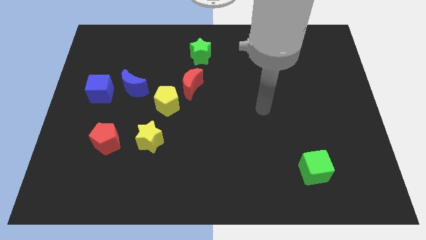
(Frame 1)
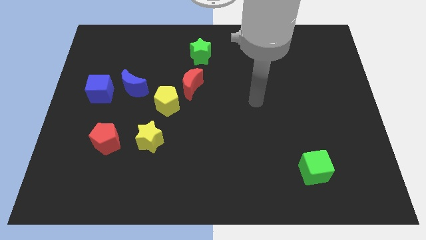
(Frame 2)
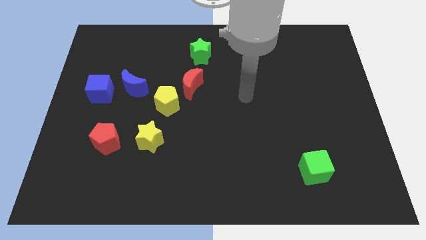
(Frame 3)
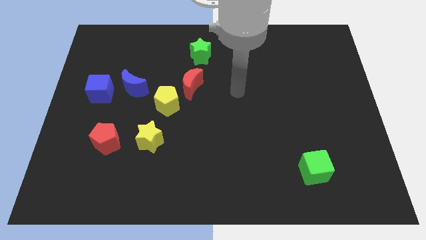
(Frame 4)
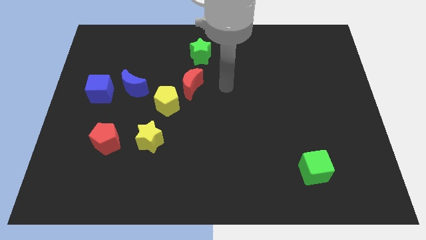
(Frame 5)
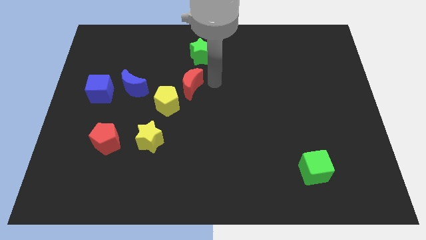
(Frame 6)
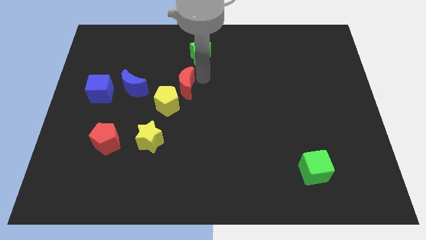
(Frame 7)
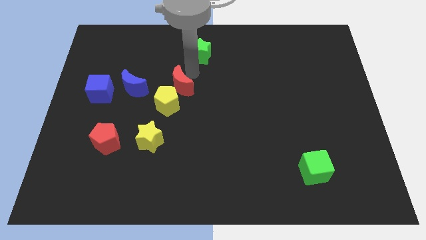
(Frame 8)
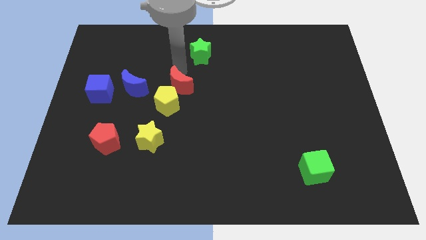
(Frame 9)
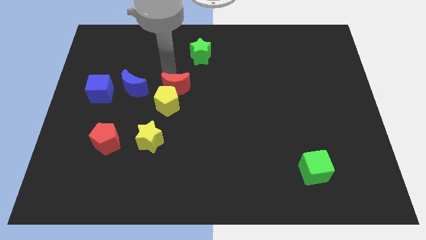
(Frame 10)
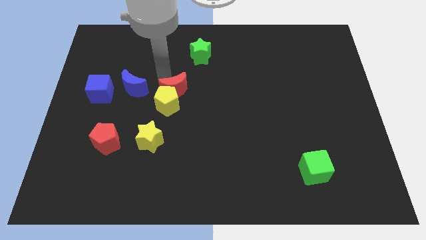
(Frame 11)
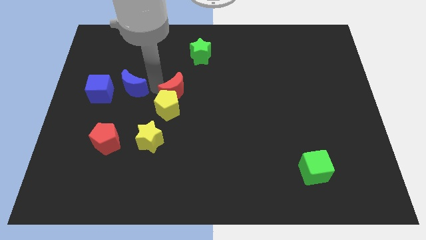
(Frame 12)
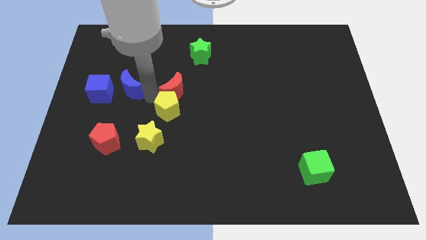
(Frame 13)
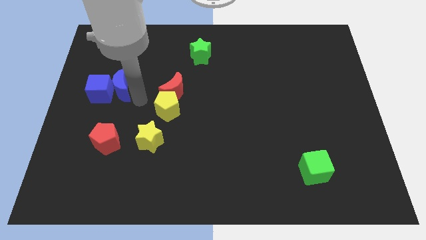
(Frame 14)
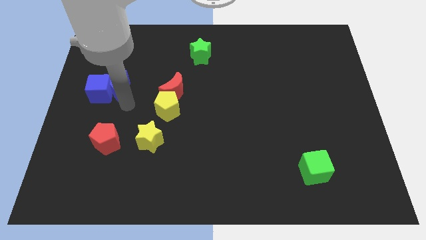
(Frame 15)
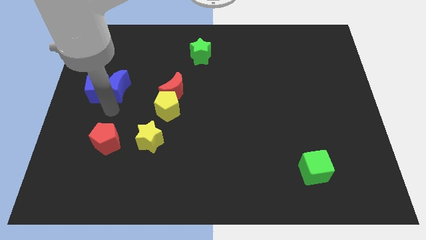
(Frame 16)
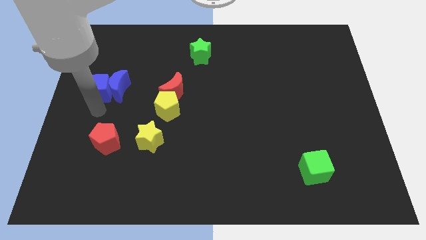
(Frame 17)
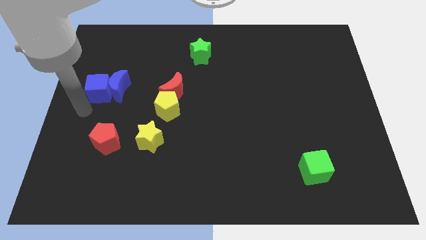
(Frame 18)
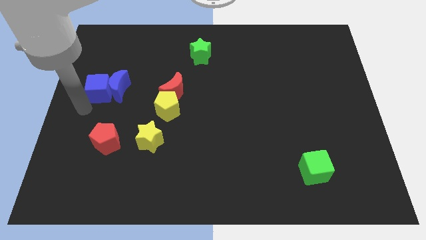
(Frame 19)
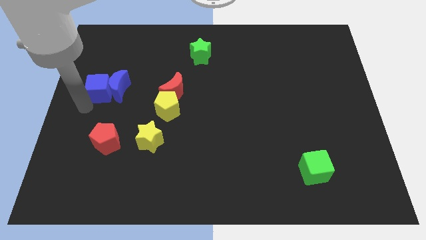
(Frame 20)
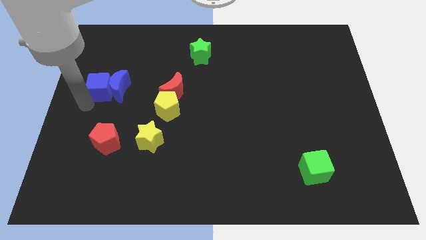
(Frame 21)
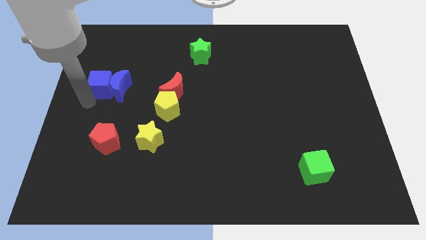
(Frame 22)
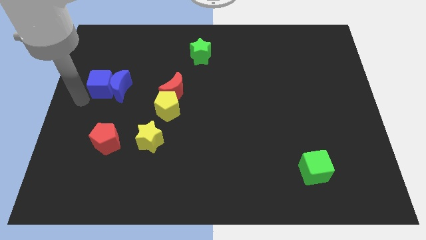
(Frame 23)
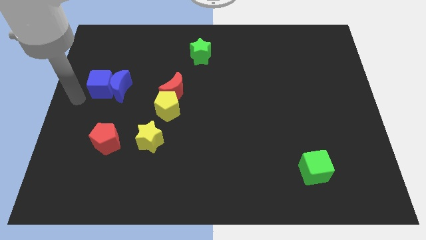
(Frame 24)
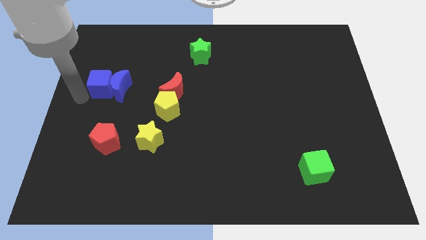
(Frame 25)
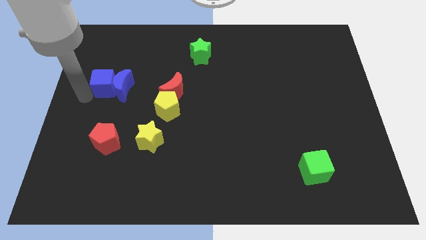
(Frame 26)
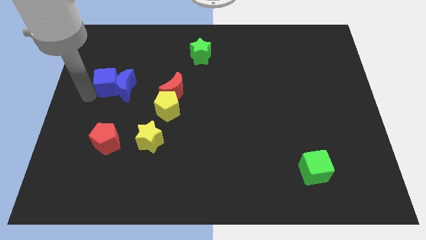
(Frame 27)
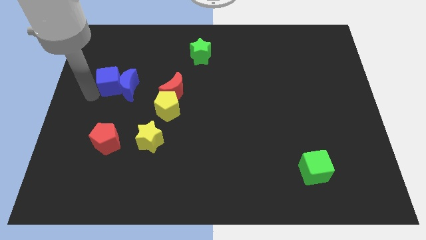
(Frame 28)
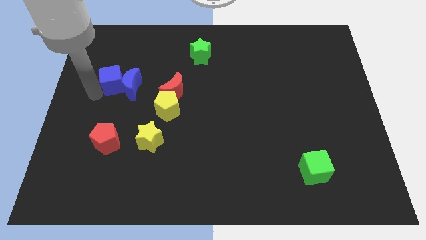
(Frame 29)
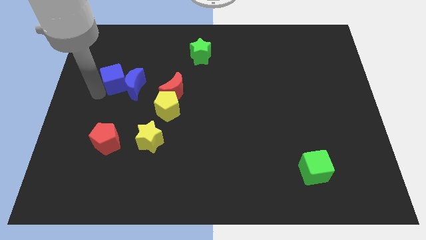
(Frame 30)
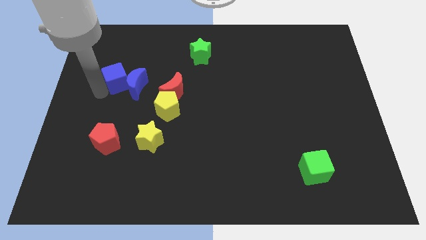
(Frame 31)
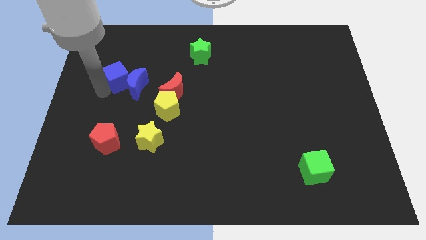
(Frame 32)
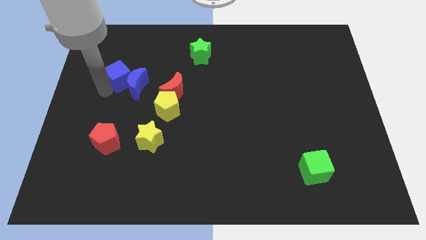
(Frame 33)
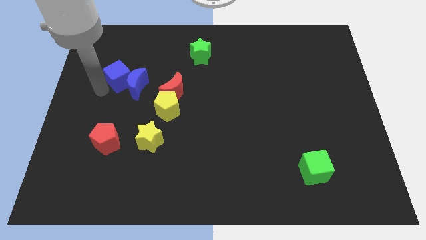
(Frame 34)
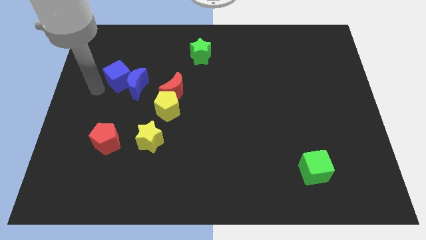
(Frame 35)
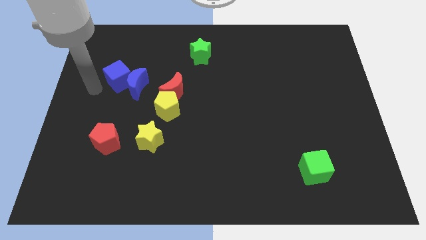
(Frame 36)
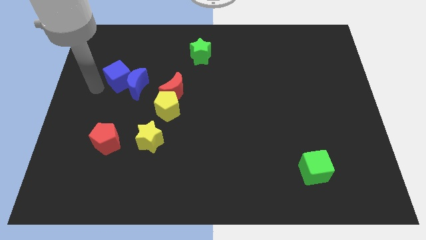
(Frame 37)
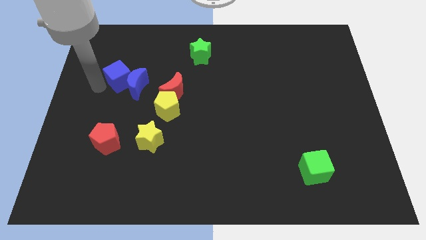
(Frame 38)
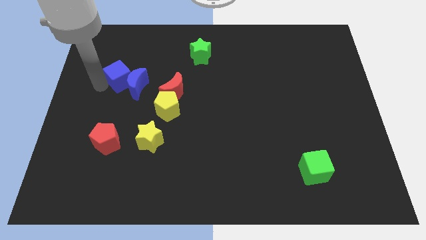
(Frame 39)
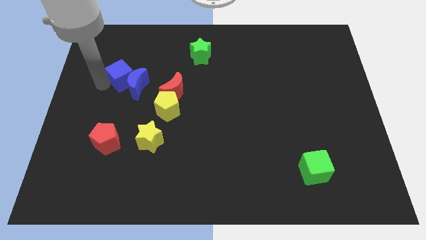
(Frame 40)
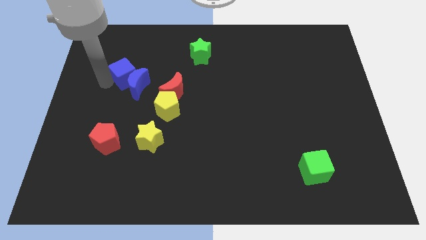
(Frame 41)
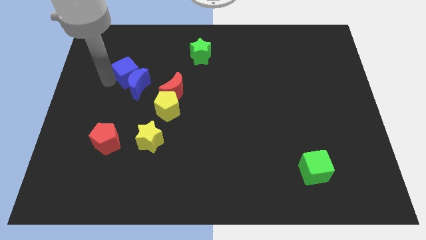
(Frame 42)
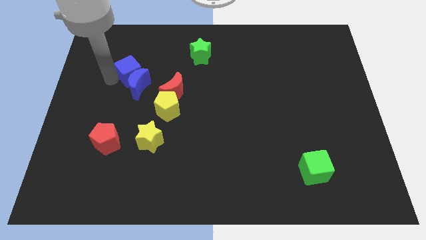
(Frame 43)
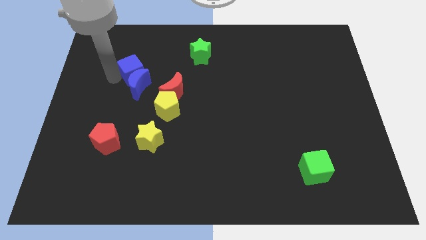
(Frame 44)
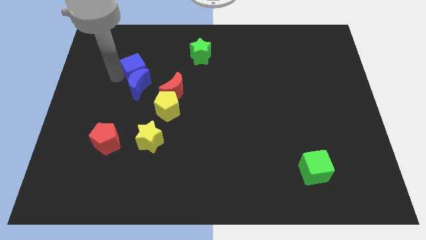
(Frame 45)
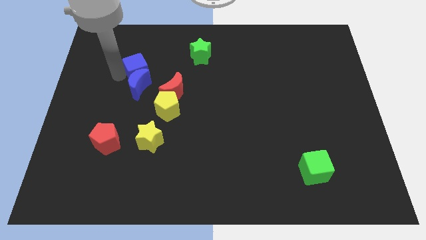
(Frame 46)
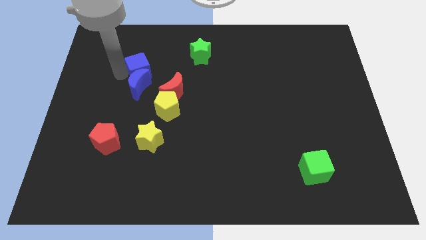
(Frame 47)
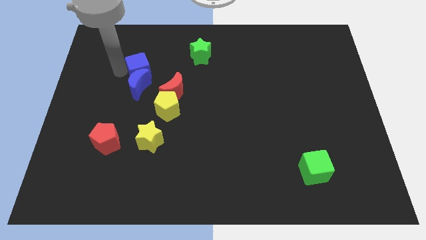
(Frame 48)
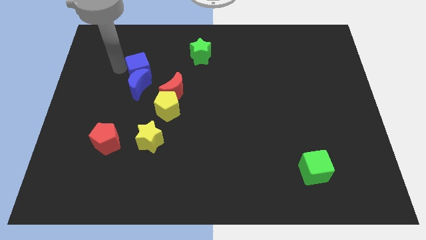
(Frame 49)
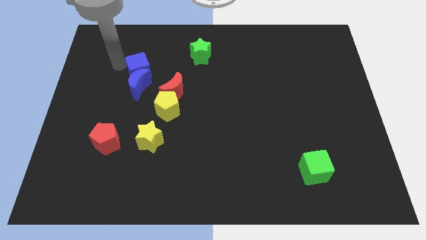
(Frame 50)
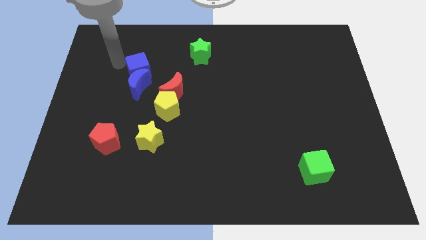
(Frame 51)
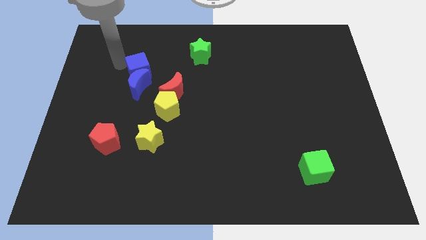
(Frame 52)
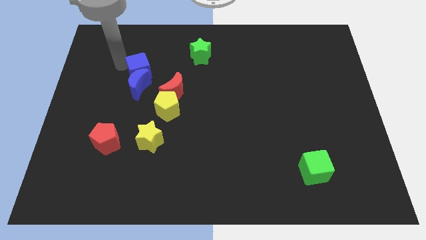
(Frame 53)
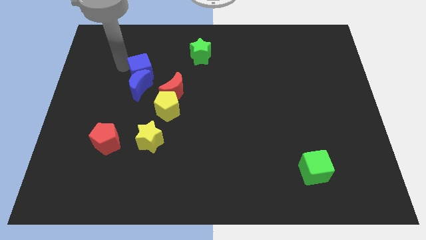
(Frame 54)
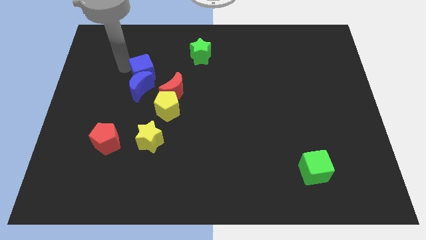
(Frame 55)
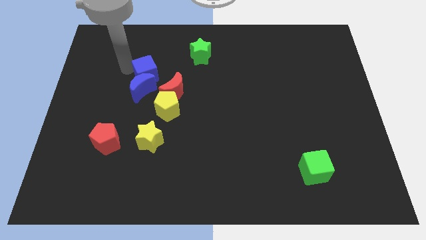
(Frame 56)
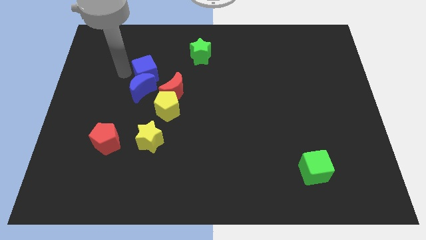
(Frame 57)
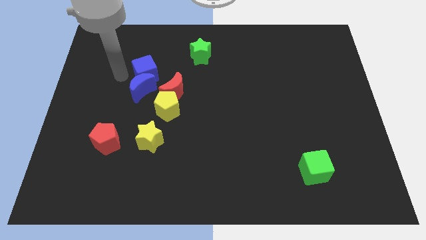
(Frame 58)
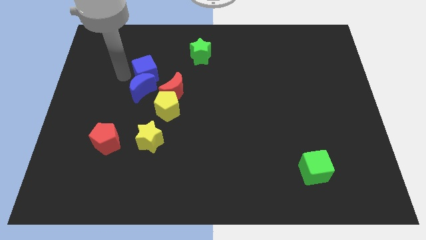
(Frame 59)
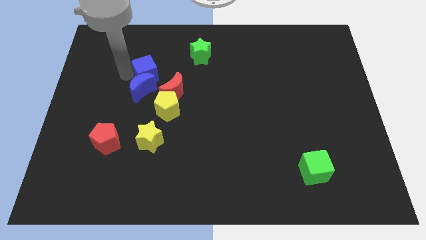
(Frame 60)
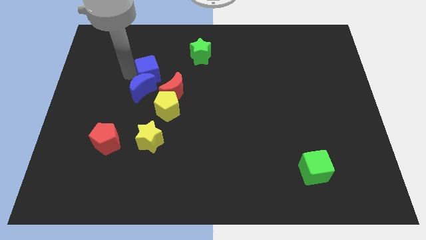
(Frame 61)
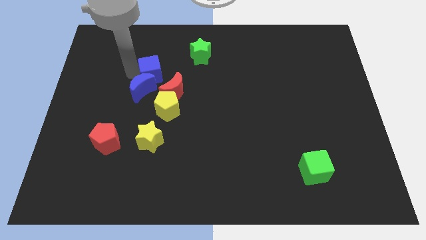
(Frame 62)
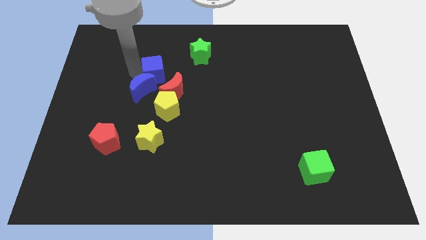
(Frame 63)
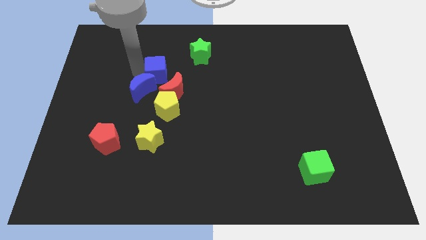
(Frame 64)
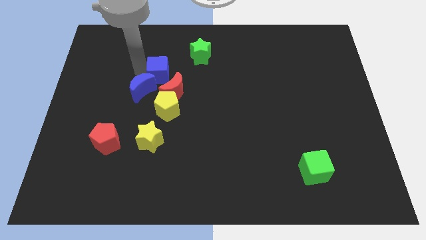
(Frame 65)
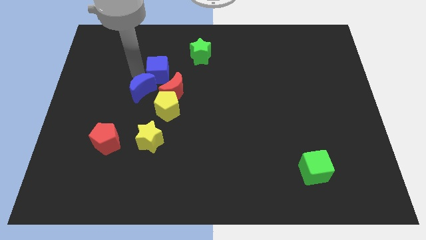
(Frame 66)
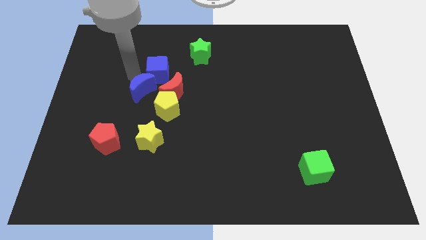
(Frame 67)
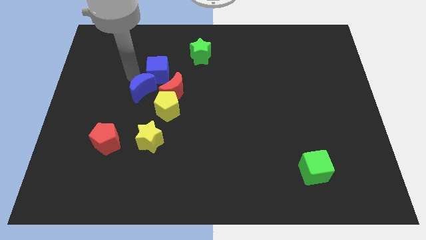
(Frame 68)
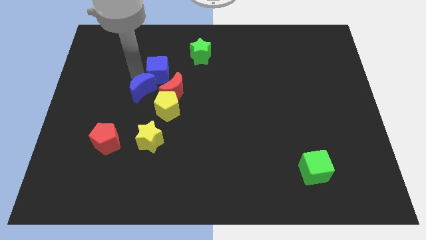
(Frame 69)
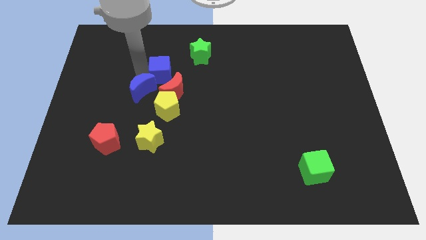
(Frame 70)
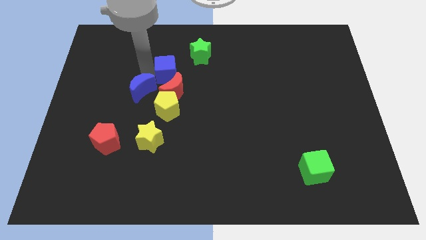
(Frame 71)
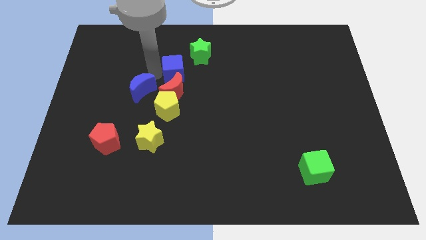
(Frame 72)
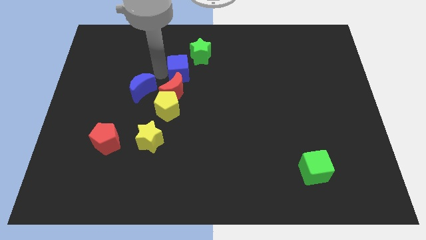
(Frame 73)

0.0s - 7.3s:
push the blue cube to the top right side of the red moon

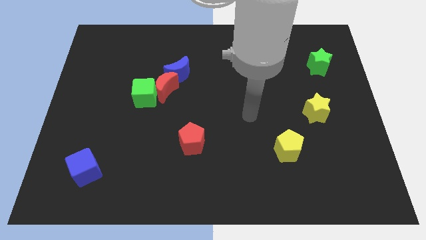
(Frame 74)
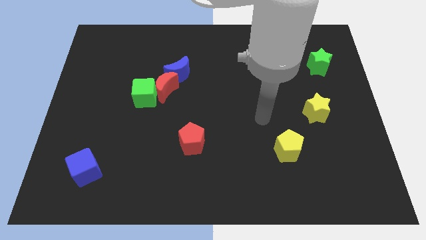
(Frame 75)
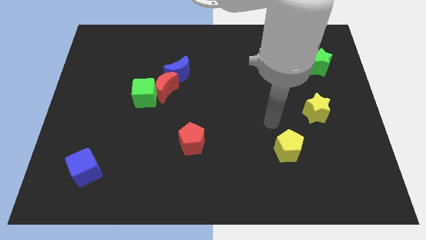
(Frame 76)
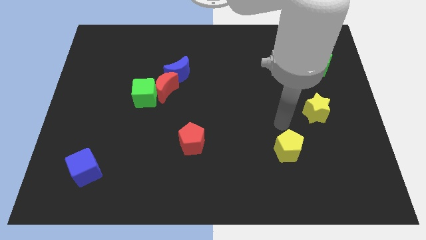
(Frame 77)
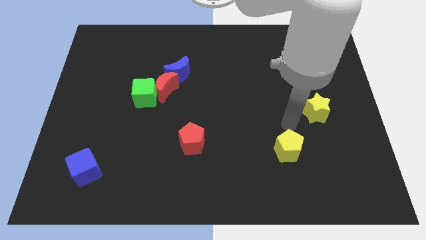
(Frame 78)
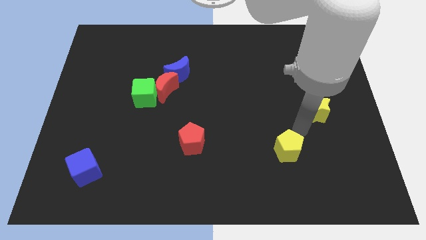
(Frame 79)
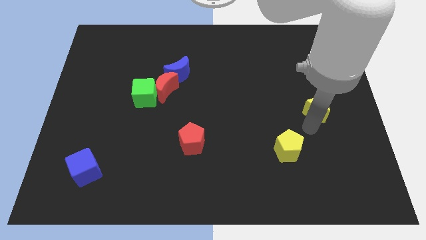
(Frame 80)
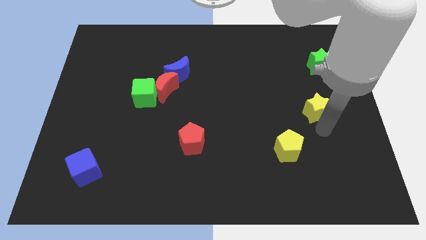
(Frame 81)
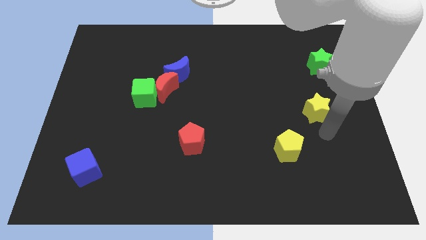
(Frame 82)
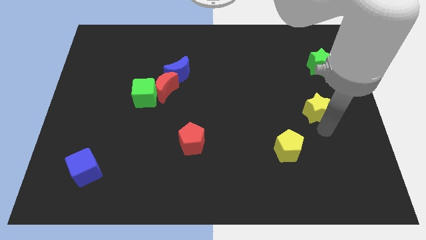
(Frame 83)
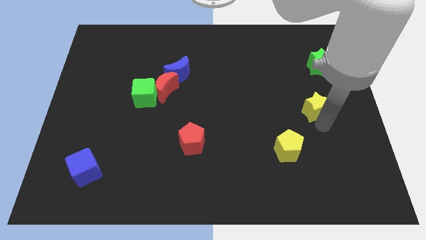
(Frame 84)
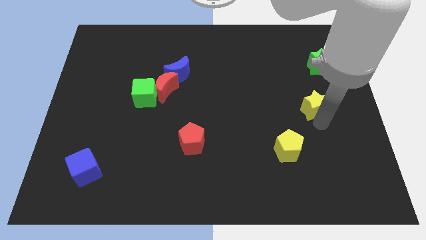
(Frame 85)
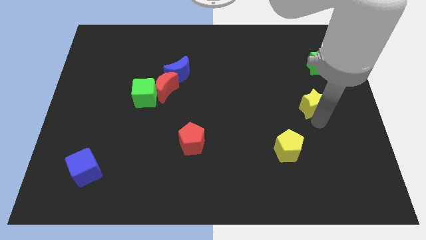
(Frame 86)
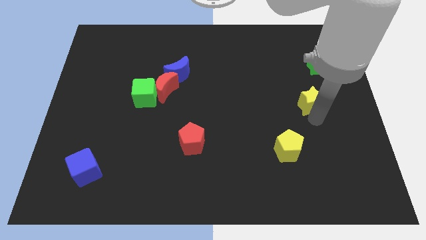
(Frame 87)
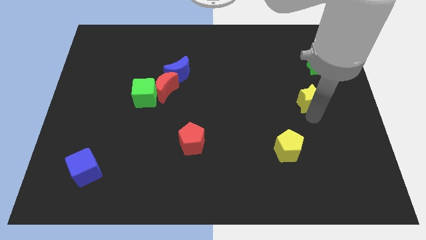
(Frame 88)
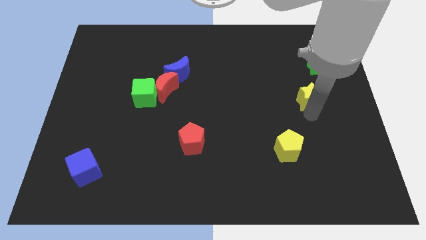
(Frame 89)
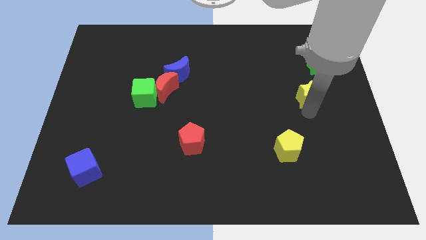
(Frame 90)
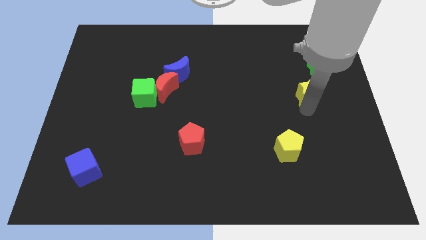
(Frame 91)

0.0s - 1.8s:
put the yellow star to the bottom left side of the green star
